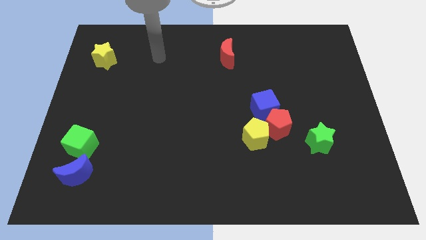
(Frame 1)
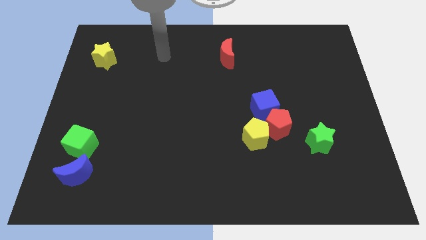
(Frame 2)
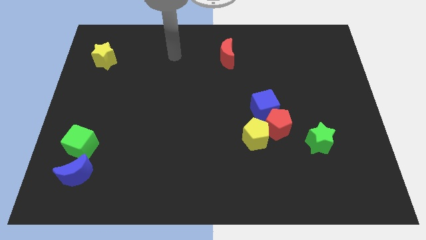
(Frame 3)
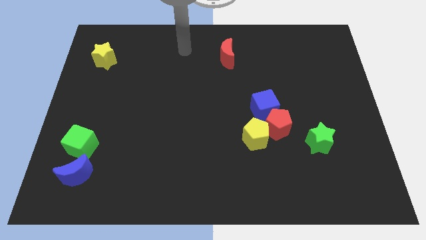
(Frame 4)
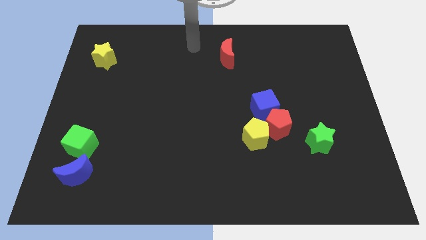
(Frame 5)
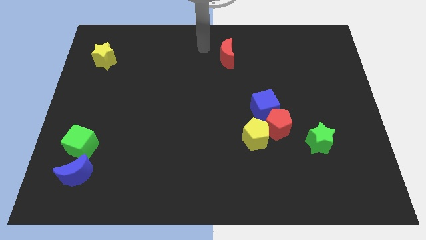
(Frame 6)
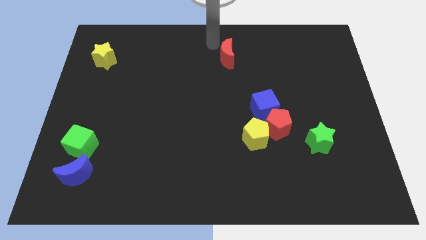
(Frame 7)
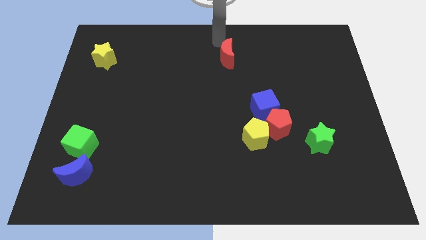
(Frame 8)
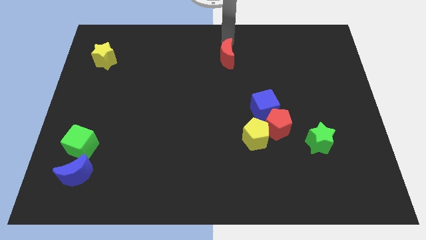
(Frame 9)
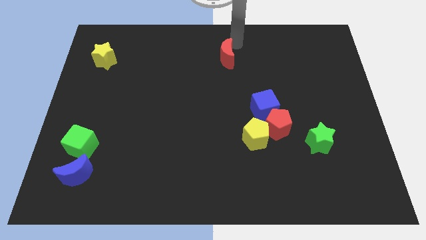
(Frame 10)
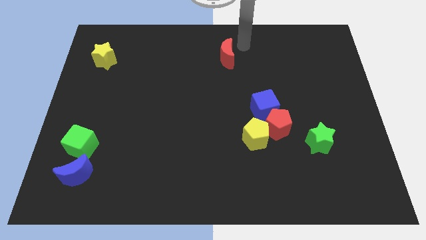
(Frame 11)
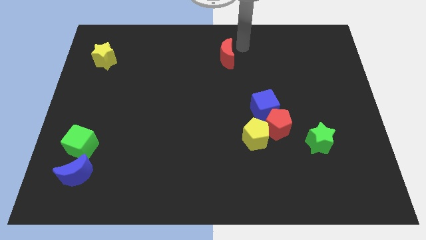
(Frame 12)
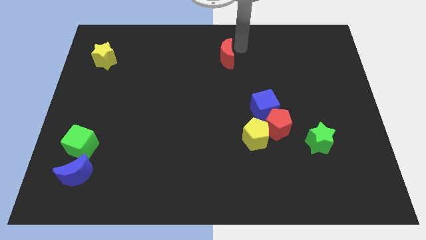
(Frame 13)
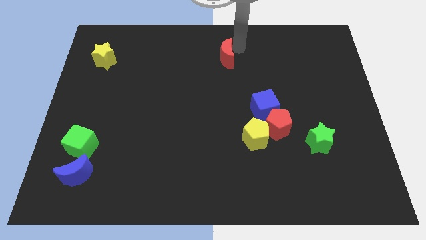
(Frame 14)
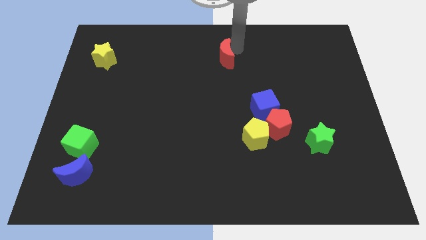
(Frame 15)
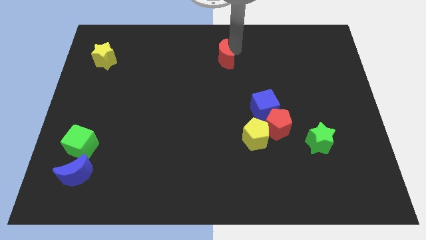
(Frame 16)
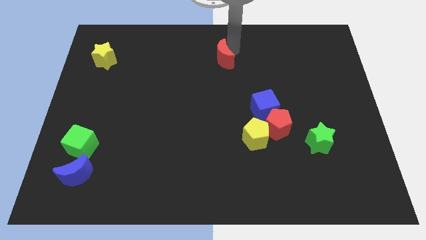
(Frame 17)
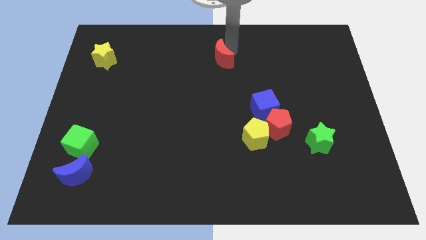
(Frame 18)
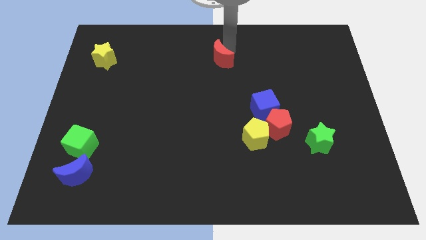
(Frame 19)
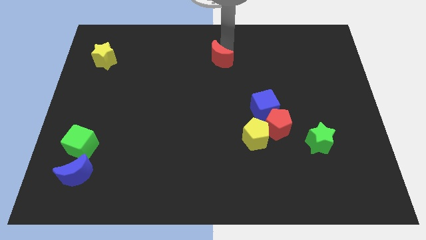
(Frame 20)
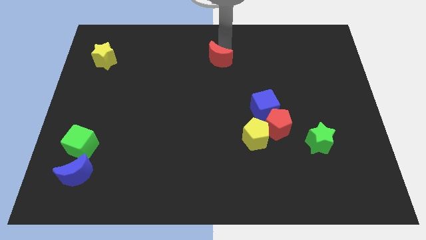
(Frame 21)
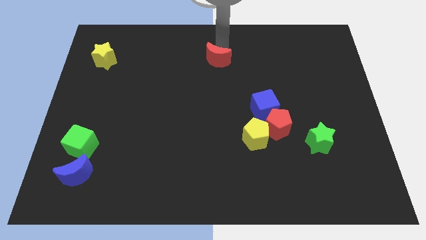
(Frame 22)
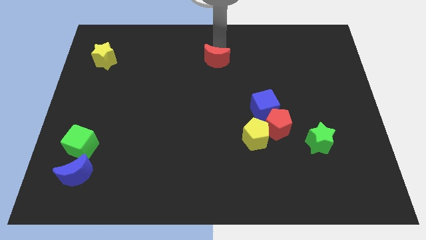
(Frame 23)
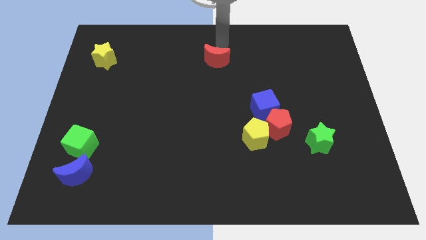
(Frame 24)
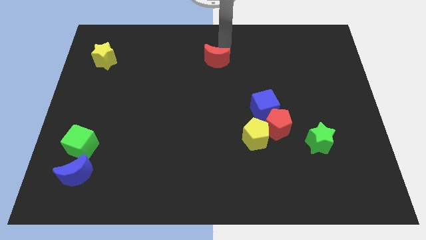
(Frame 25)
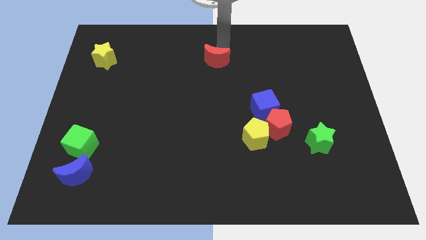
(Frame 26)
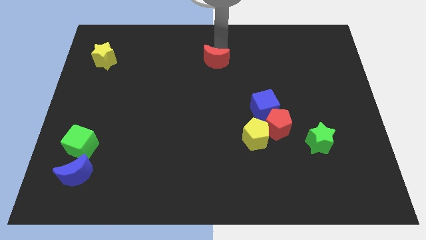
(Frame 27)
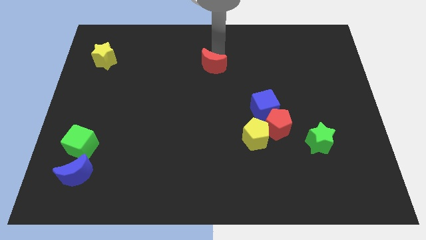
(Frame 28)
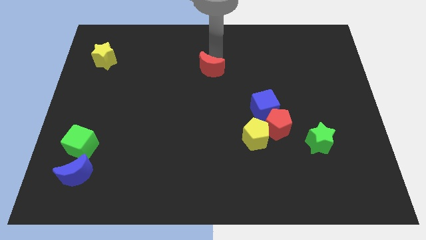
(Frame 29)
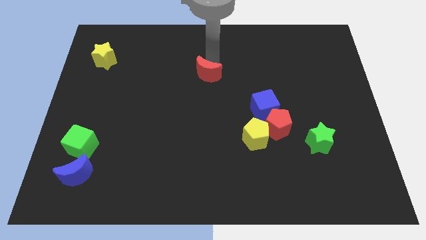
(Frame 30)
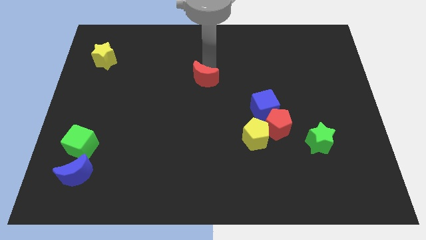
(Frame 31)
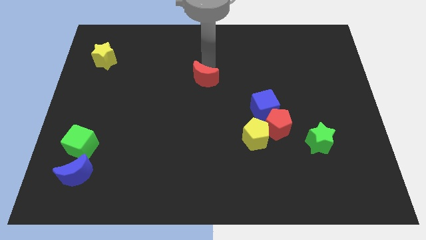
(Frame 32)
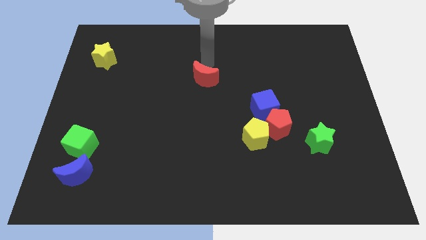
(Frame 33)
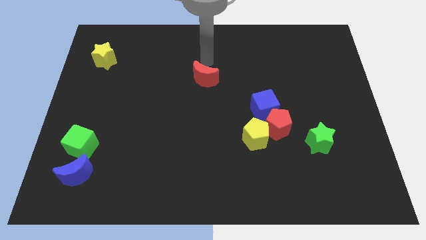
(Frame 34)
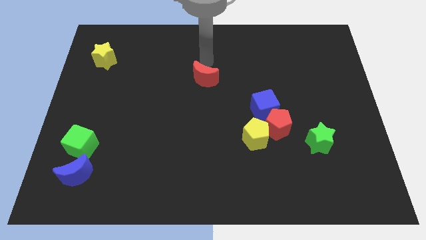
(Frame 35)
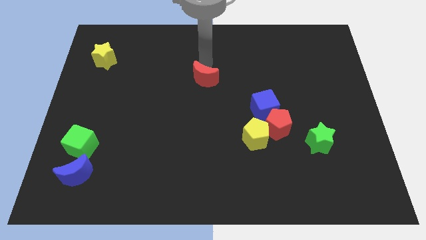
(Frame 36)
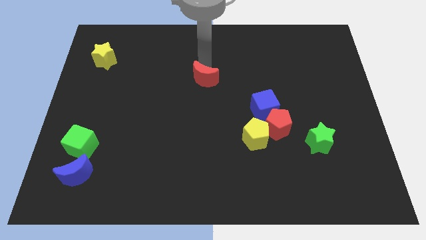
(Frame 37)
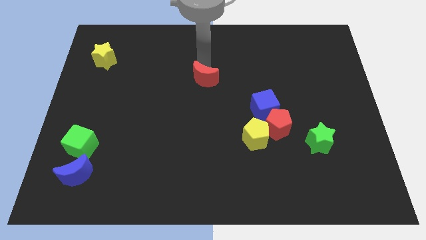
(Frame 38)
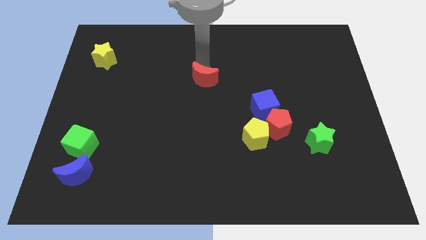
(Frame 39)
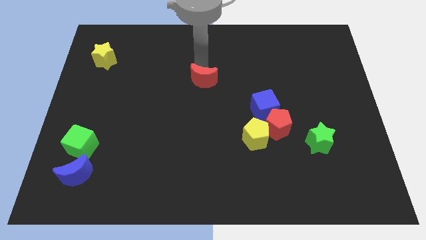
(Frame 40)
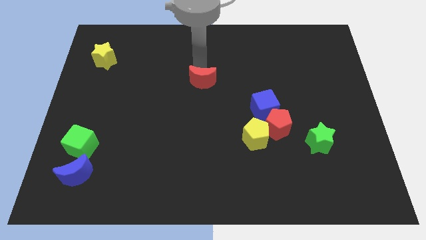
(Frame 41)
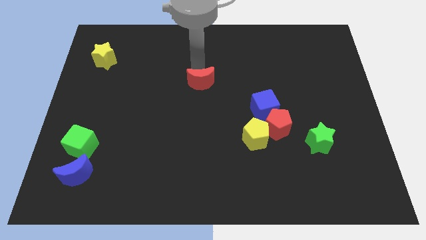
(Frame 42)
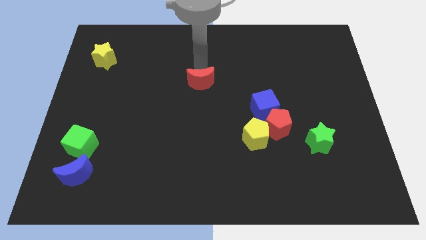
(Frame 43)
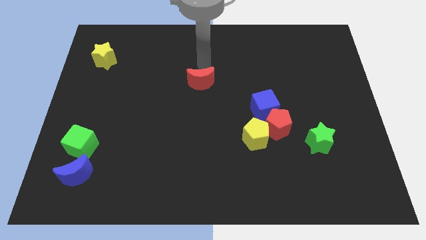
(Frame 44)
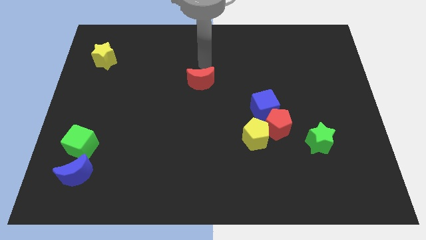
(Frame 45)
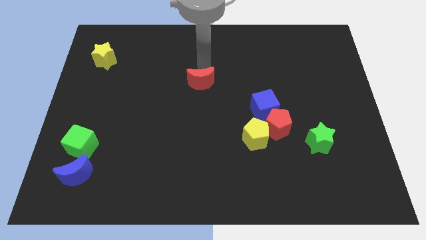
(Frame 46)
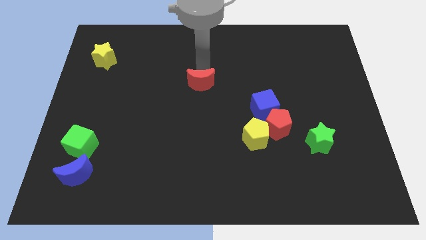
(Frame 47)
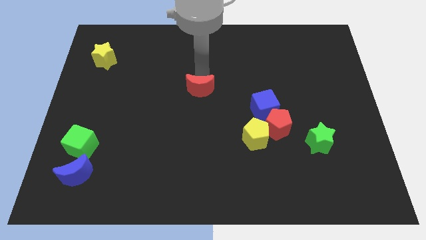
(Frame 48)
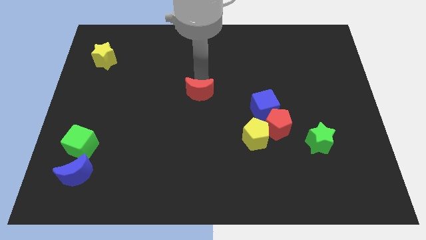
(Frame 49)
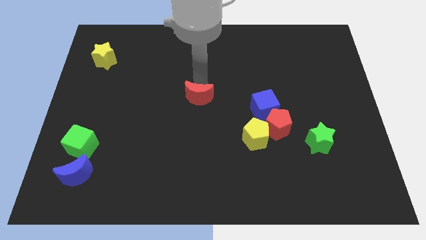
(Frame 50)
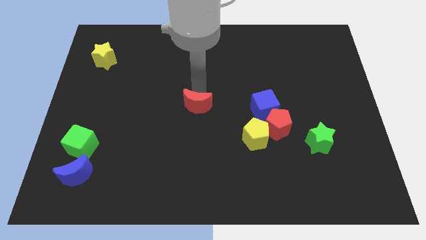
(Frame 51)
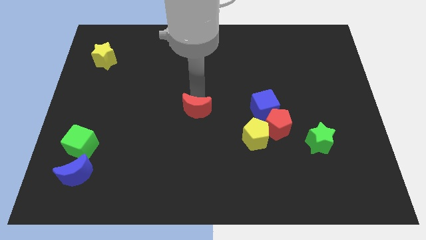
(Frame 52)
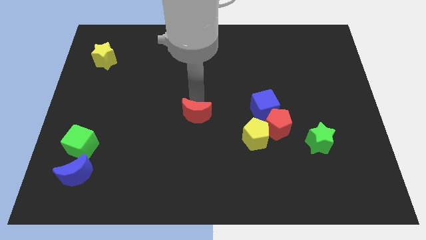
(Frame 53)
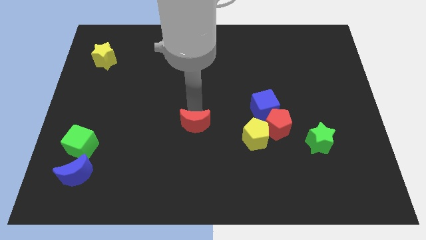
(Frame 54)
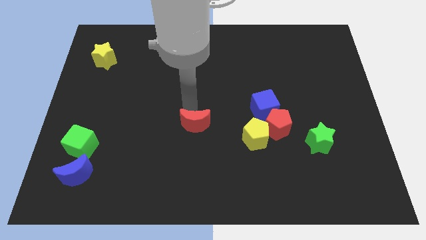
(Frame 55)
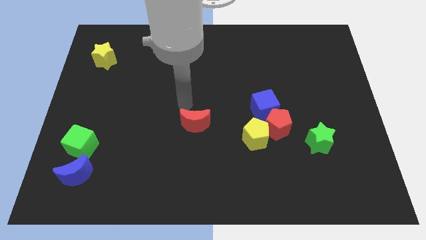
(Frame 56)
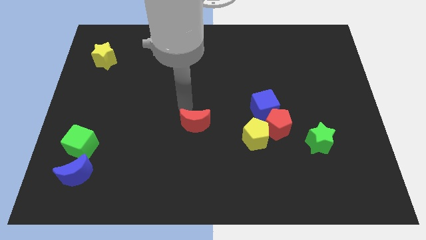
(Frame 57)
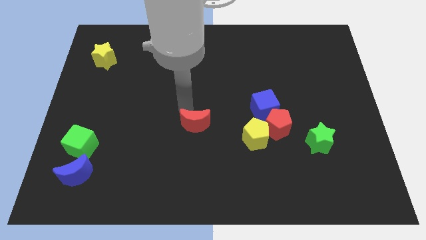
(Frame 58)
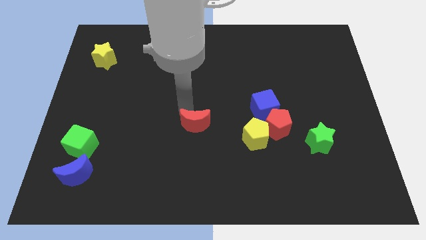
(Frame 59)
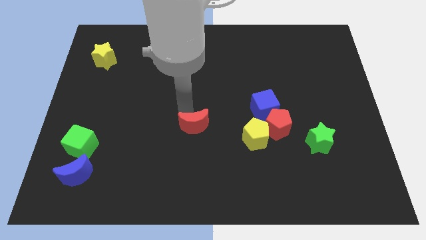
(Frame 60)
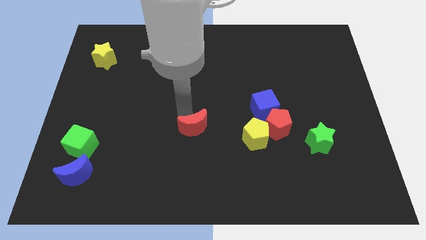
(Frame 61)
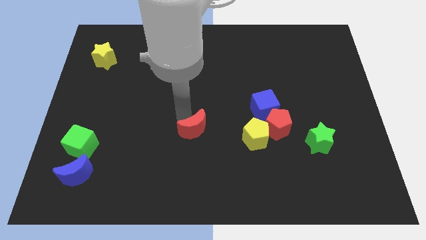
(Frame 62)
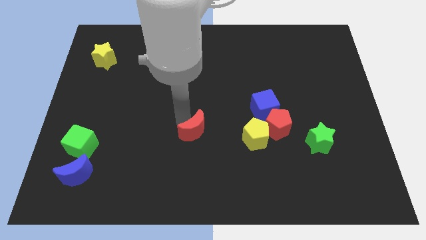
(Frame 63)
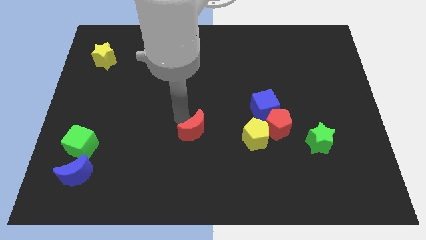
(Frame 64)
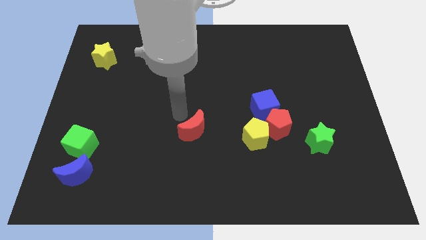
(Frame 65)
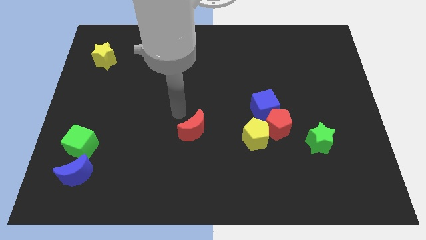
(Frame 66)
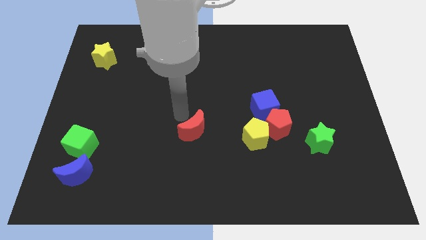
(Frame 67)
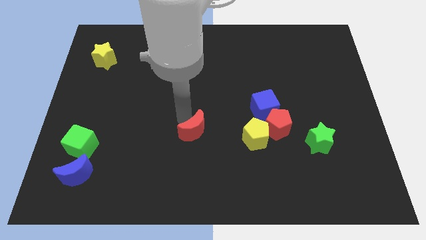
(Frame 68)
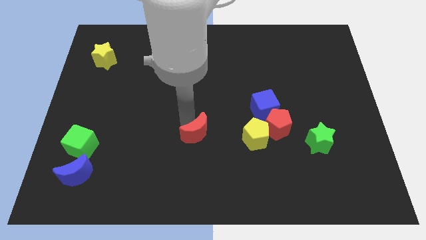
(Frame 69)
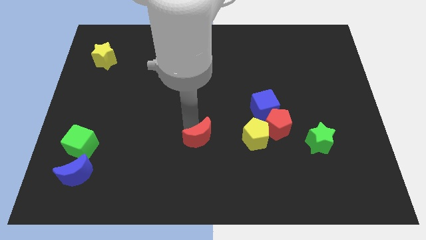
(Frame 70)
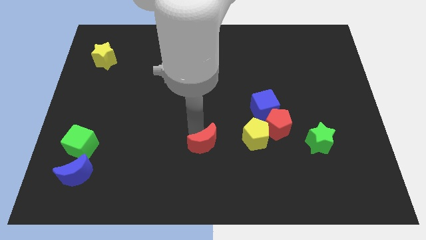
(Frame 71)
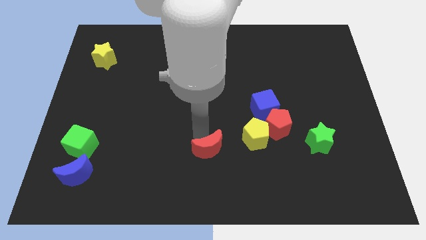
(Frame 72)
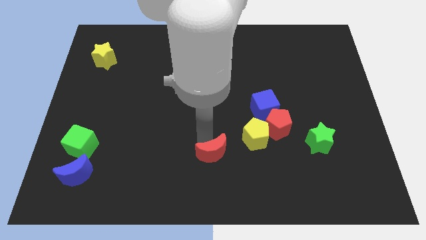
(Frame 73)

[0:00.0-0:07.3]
put the red moon to the bottom side
